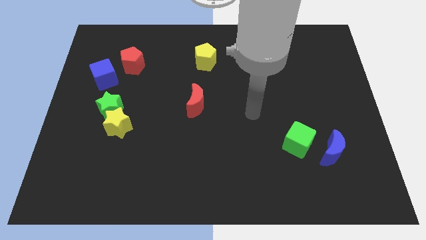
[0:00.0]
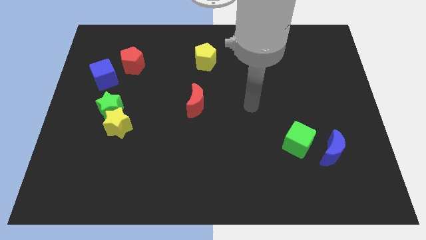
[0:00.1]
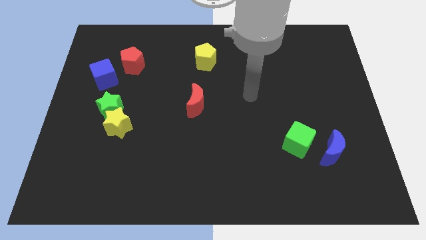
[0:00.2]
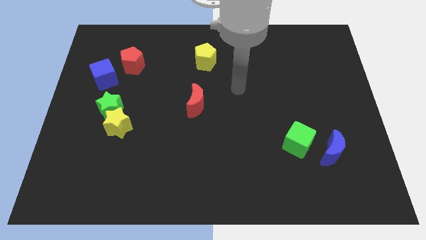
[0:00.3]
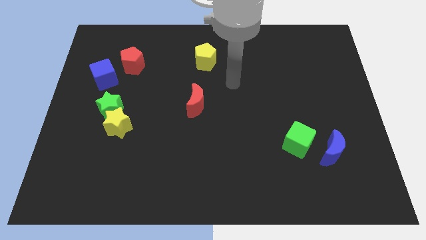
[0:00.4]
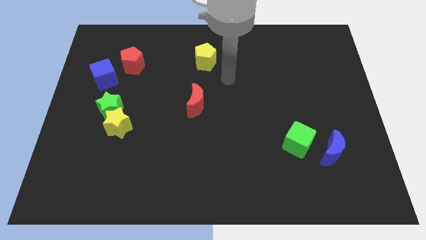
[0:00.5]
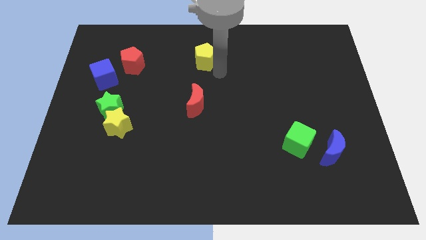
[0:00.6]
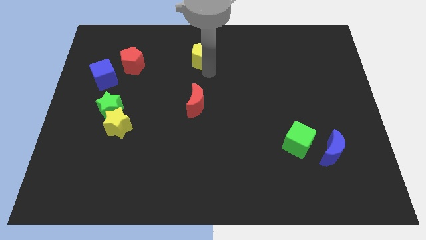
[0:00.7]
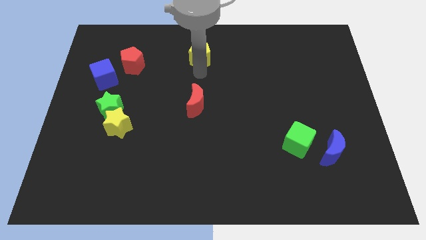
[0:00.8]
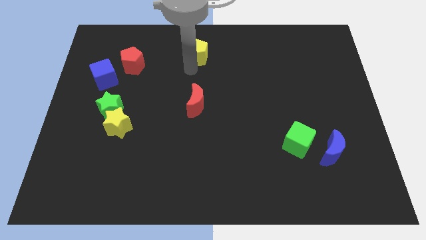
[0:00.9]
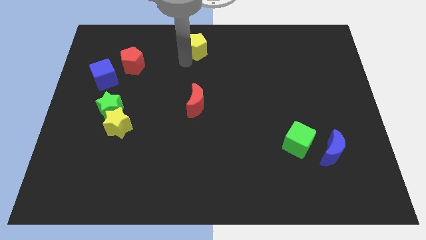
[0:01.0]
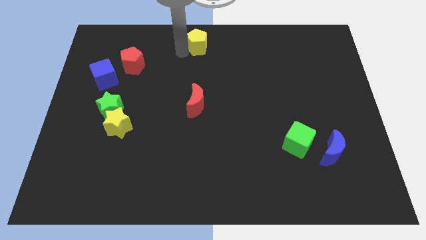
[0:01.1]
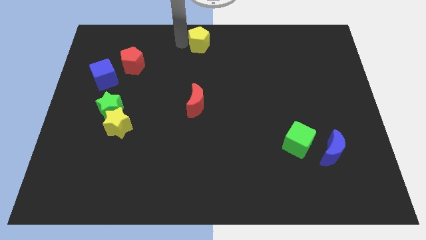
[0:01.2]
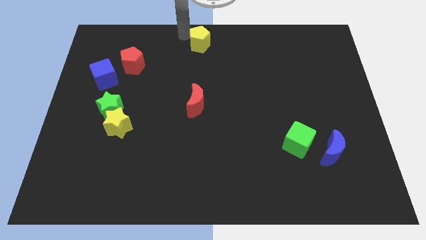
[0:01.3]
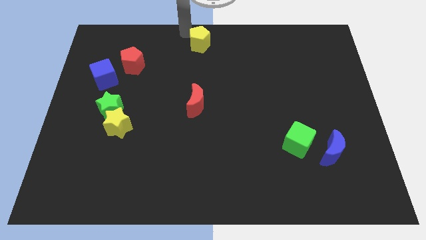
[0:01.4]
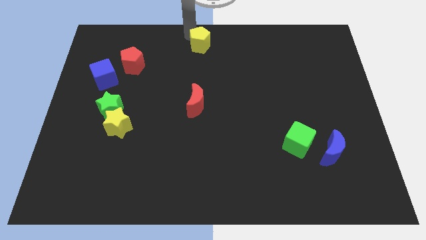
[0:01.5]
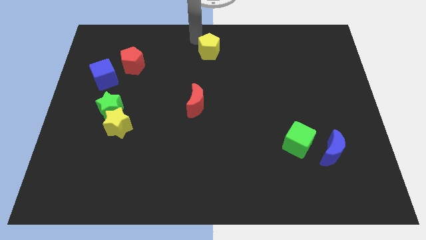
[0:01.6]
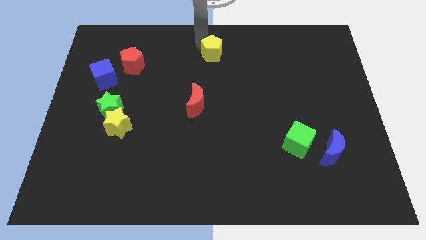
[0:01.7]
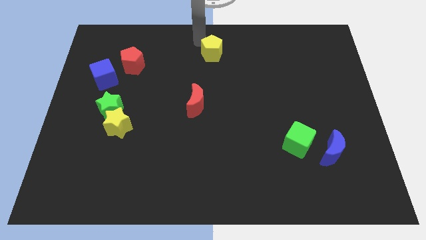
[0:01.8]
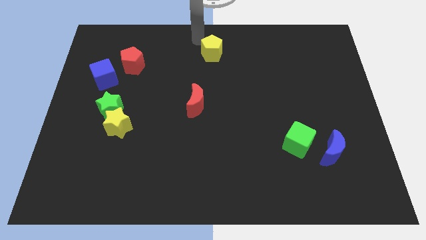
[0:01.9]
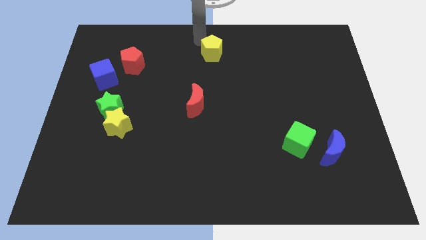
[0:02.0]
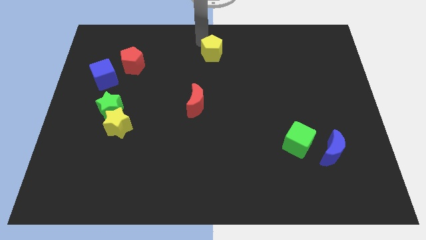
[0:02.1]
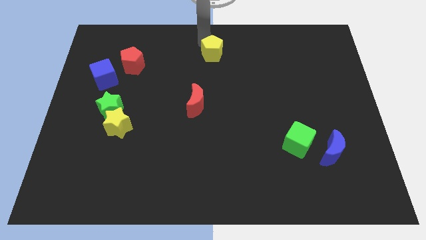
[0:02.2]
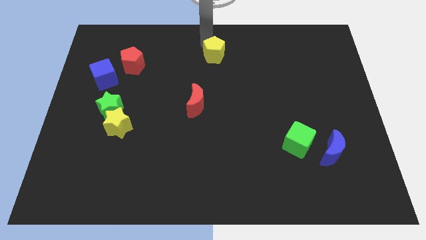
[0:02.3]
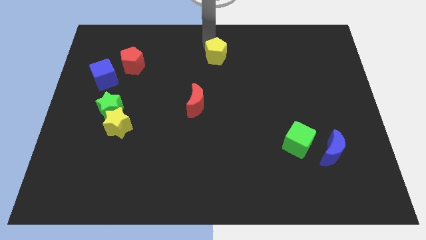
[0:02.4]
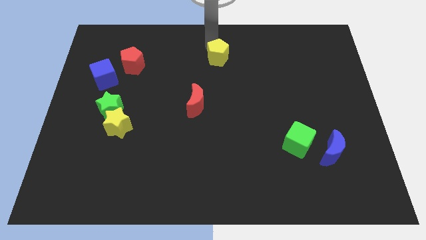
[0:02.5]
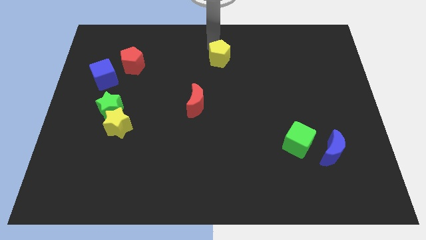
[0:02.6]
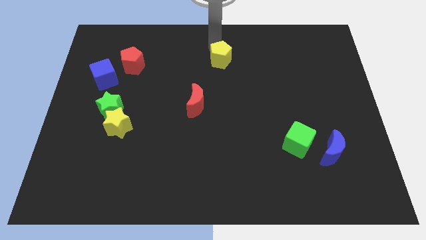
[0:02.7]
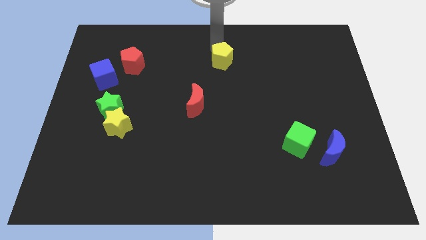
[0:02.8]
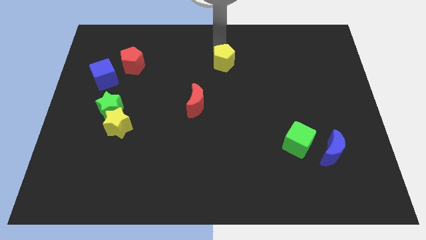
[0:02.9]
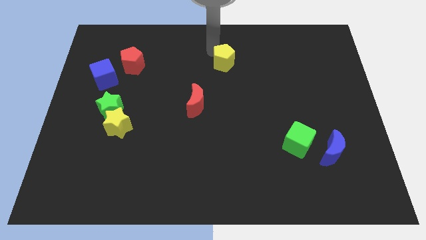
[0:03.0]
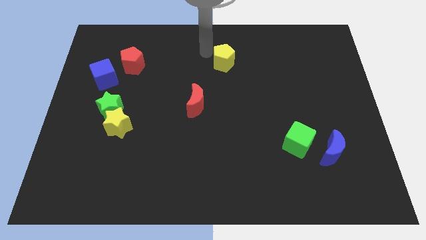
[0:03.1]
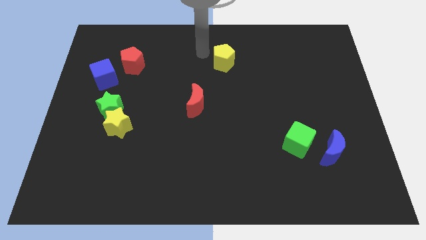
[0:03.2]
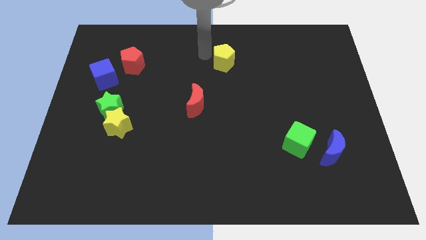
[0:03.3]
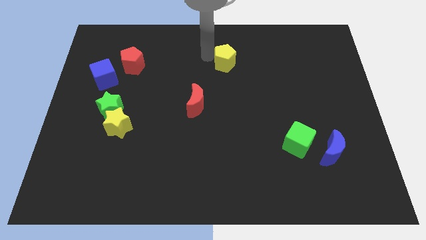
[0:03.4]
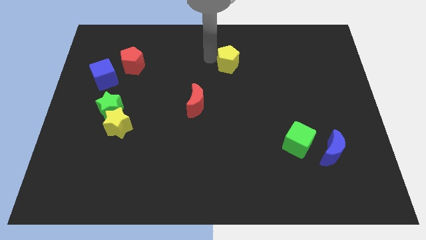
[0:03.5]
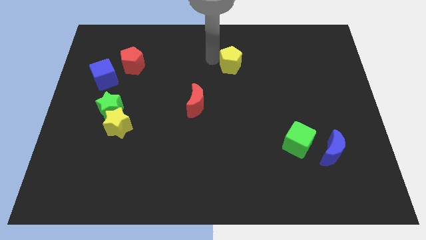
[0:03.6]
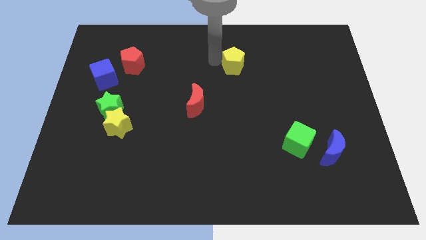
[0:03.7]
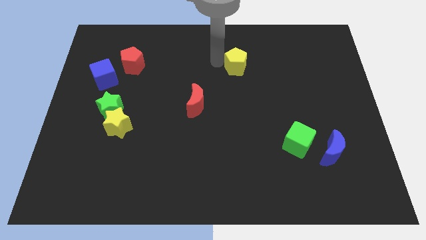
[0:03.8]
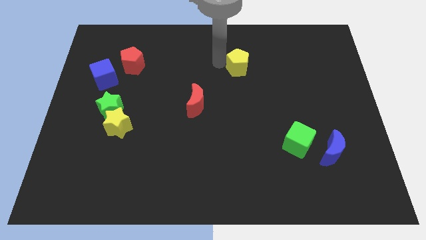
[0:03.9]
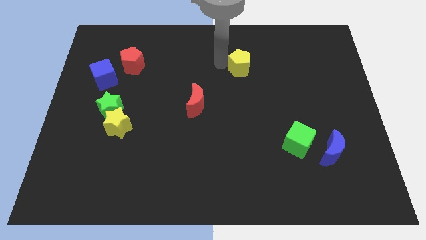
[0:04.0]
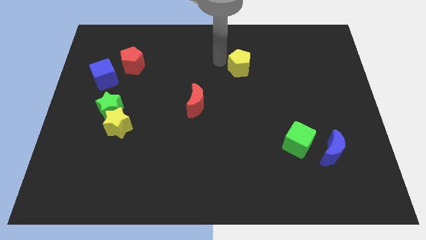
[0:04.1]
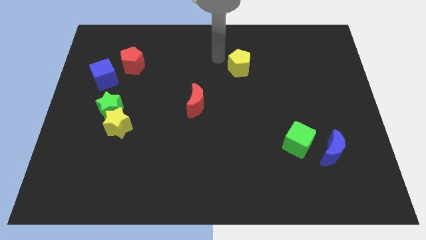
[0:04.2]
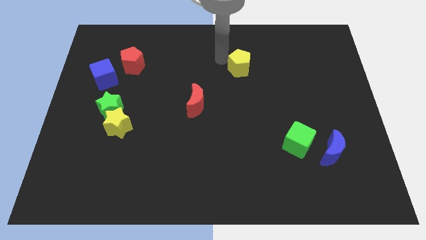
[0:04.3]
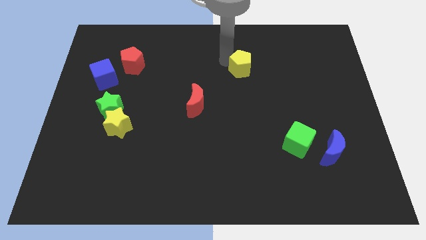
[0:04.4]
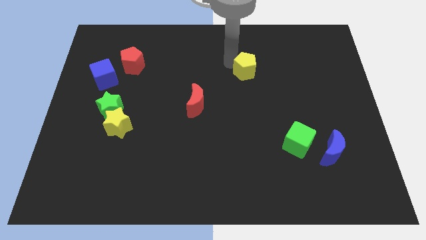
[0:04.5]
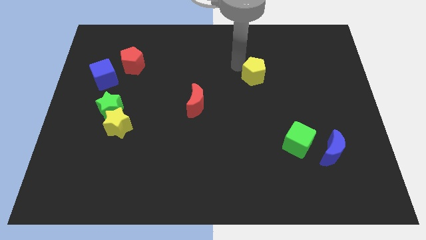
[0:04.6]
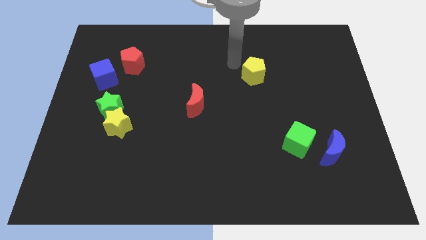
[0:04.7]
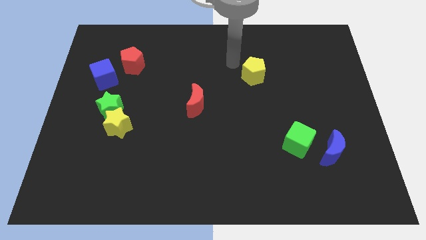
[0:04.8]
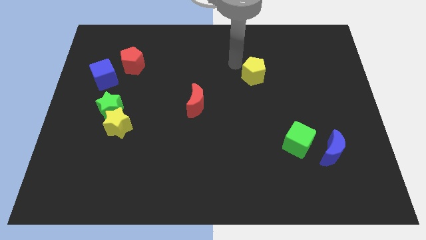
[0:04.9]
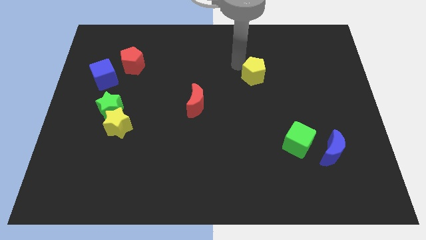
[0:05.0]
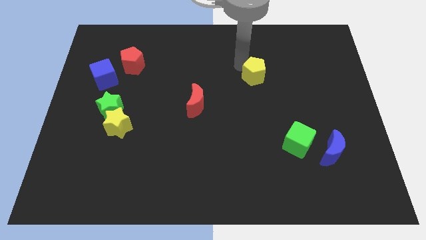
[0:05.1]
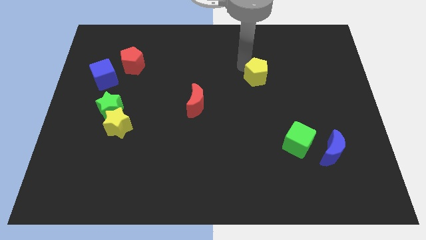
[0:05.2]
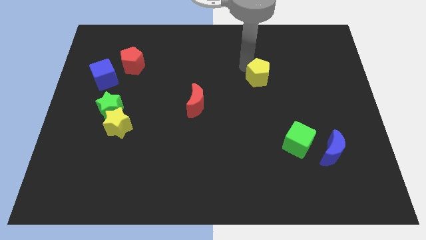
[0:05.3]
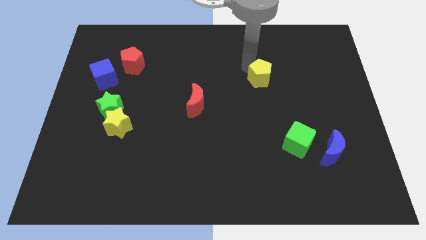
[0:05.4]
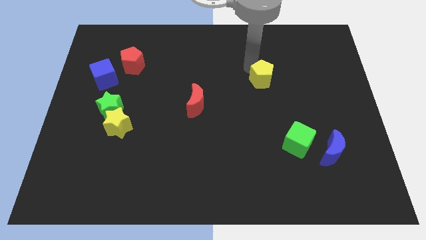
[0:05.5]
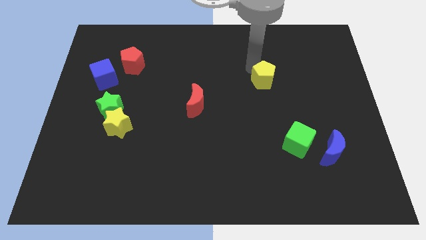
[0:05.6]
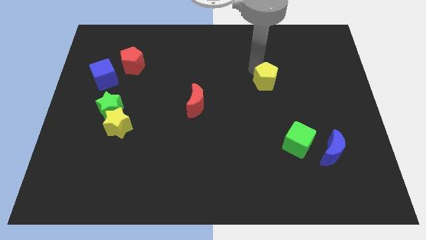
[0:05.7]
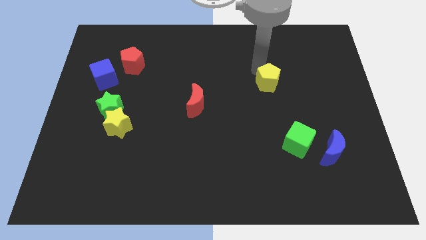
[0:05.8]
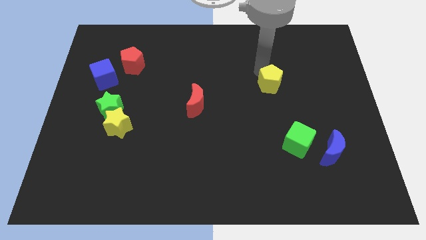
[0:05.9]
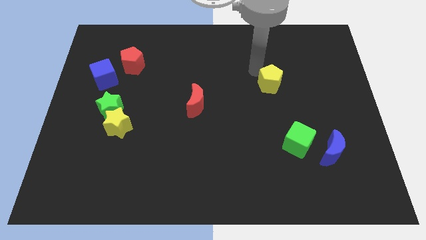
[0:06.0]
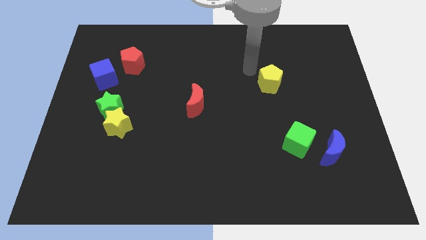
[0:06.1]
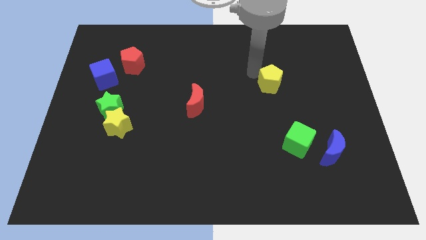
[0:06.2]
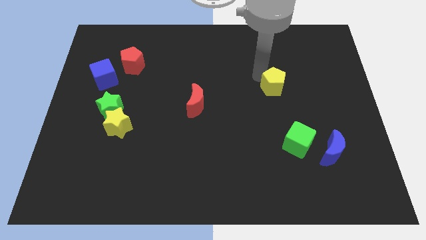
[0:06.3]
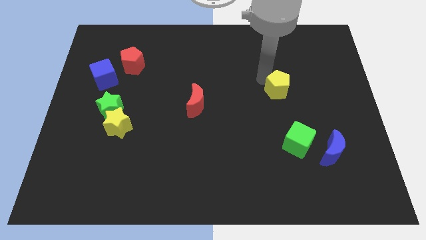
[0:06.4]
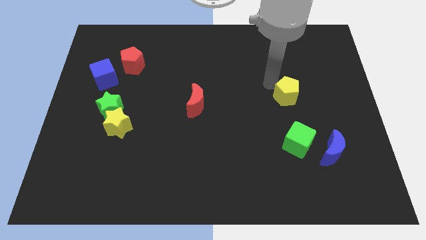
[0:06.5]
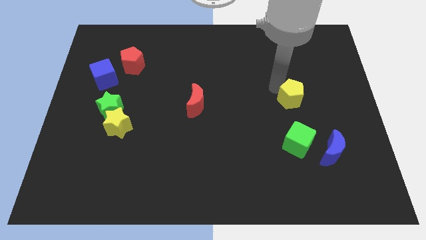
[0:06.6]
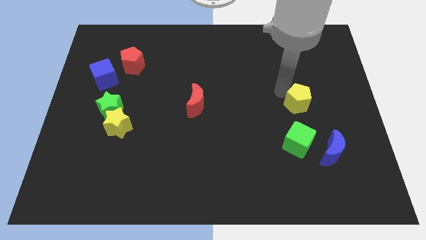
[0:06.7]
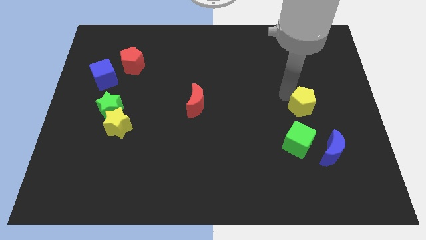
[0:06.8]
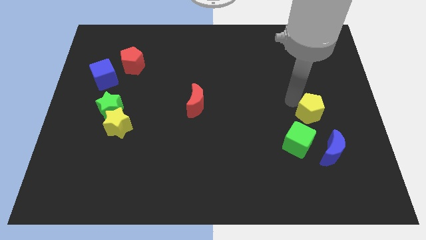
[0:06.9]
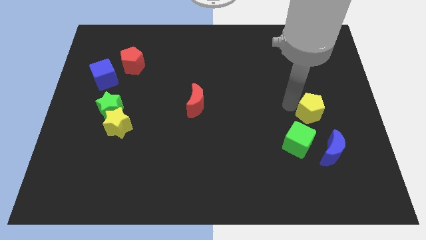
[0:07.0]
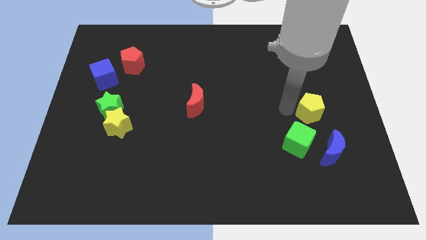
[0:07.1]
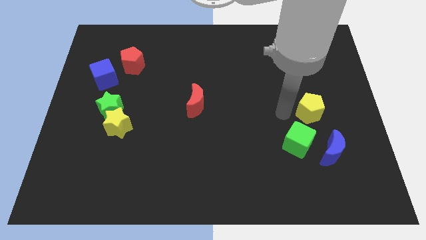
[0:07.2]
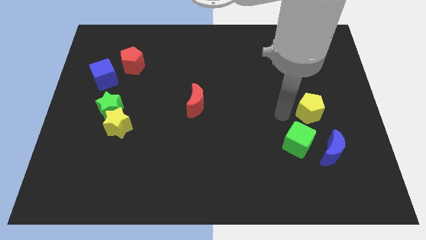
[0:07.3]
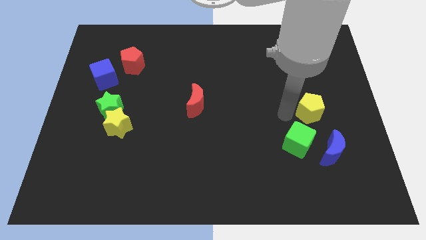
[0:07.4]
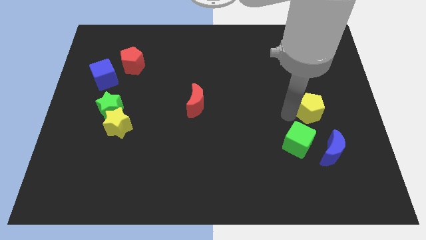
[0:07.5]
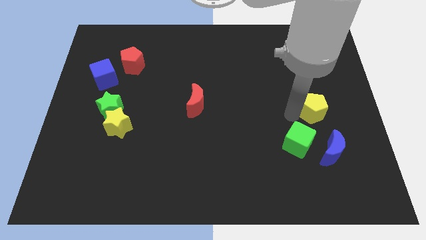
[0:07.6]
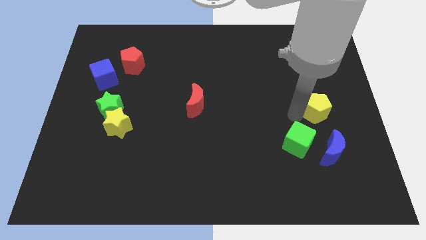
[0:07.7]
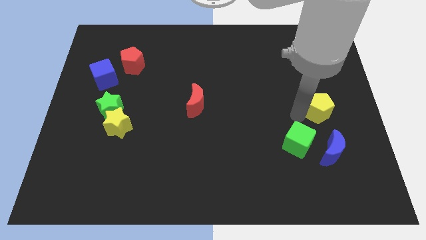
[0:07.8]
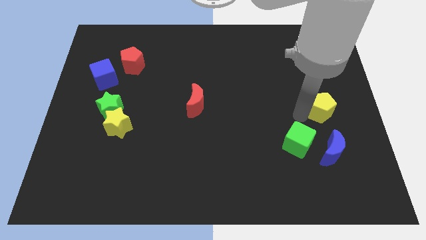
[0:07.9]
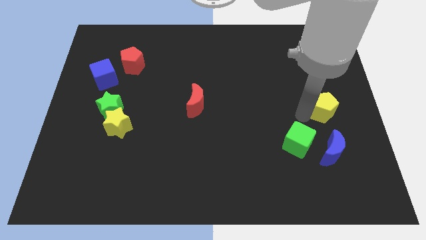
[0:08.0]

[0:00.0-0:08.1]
push the yellow pentagon to the center right
